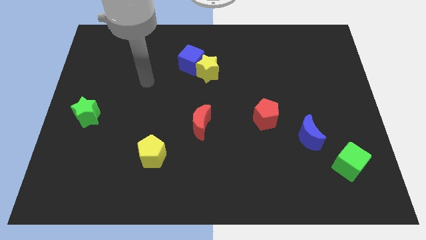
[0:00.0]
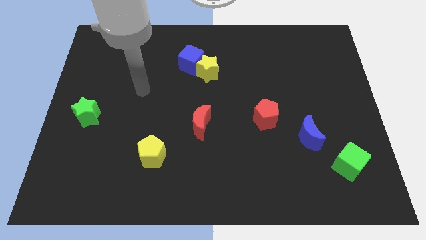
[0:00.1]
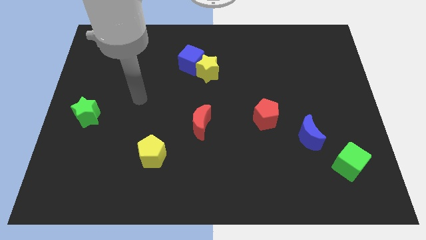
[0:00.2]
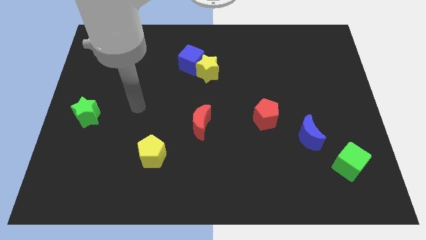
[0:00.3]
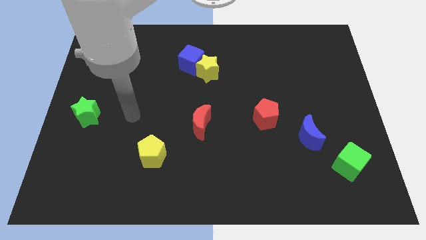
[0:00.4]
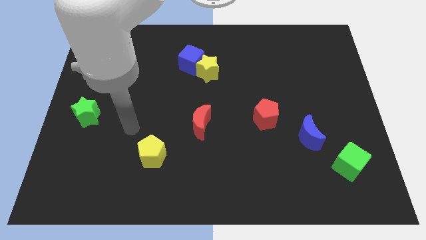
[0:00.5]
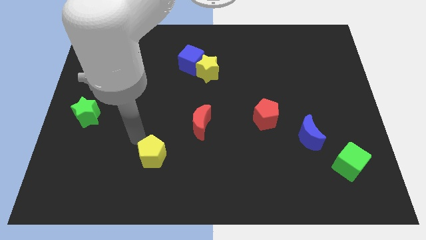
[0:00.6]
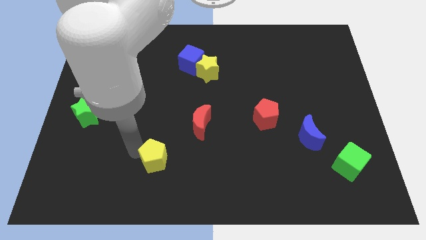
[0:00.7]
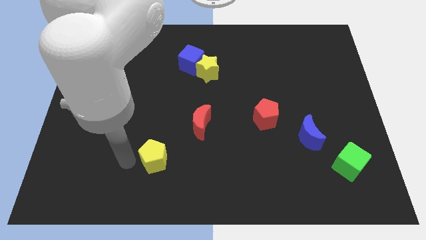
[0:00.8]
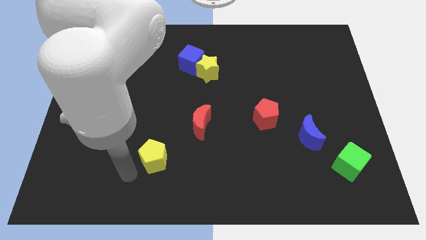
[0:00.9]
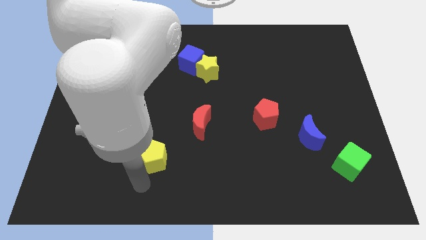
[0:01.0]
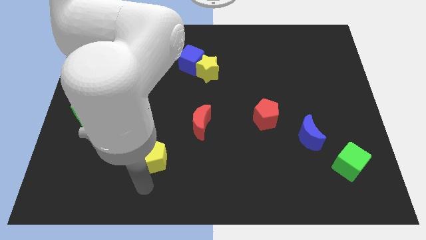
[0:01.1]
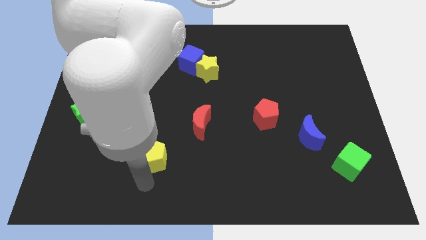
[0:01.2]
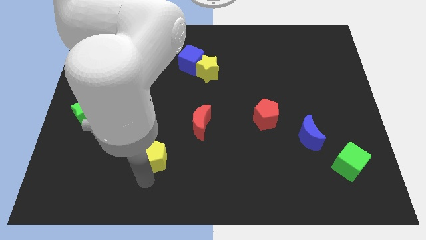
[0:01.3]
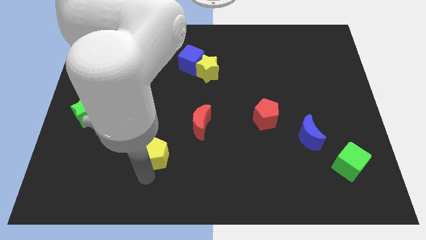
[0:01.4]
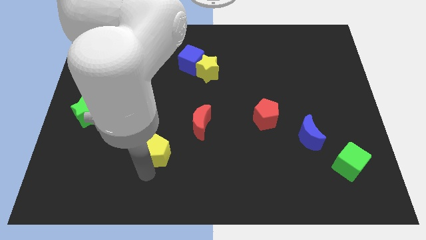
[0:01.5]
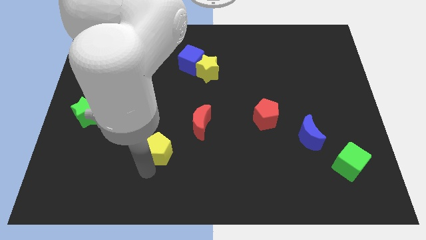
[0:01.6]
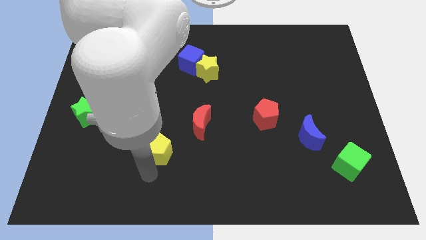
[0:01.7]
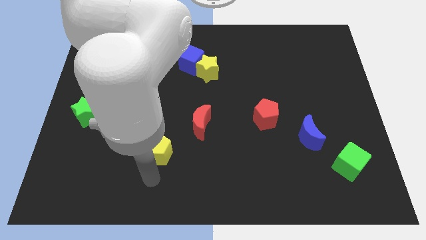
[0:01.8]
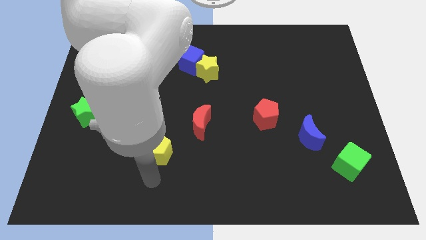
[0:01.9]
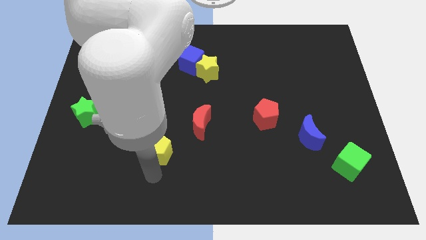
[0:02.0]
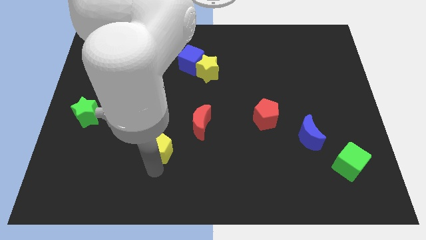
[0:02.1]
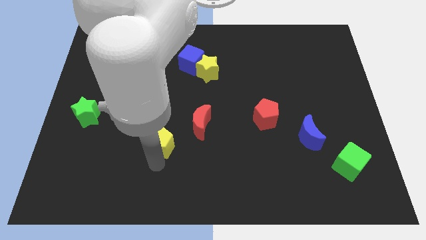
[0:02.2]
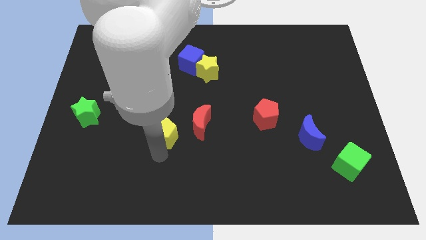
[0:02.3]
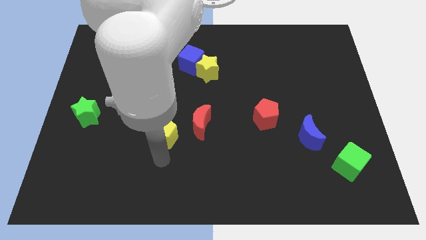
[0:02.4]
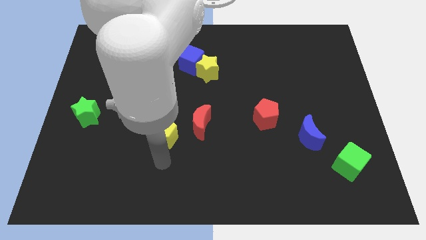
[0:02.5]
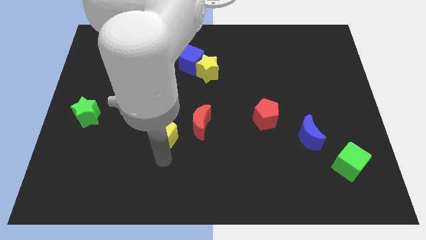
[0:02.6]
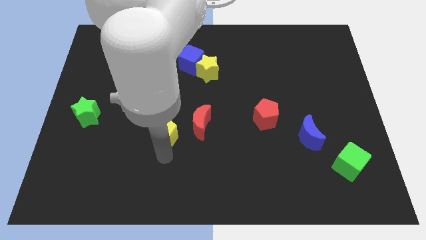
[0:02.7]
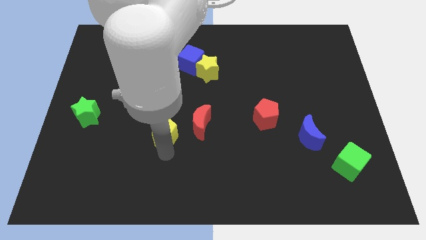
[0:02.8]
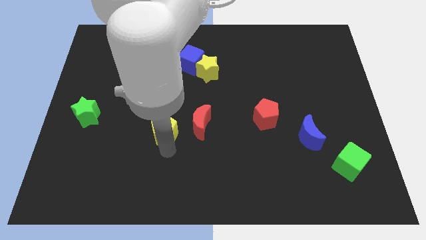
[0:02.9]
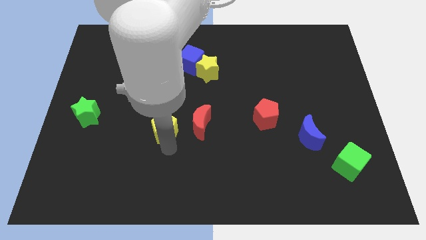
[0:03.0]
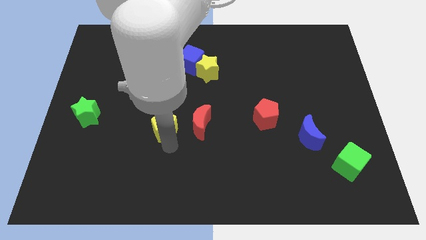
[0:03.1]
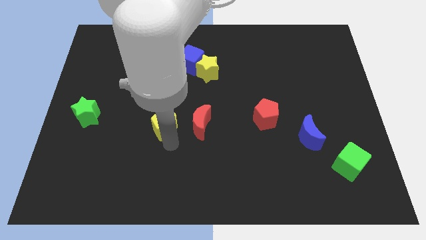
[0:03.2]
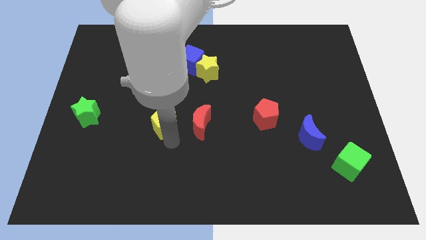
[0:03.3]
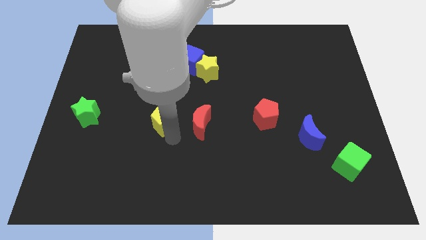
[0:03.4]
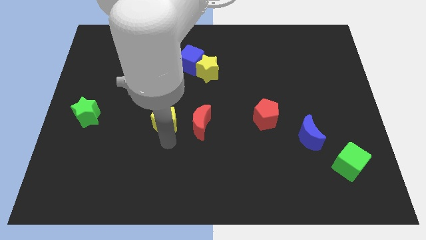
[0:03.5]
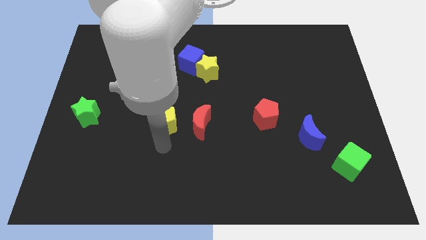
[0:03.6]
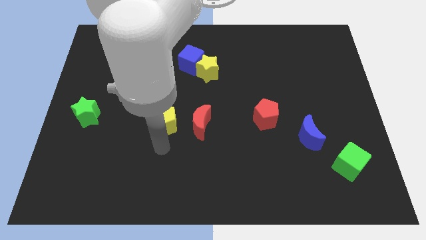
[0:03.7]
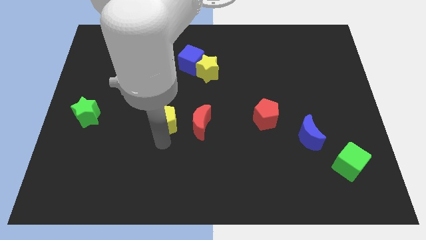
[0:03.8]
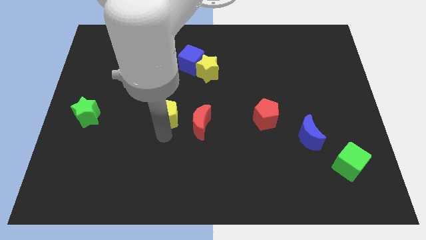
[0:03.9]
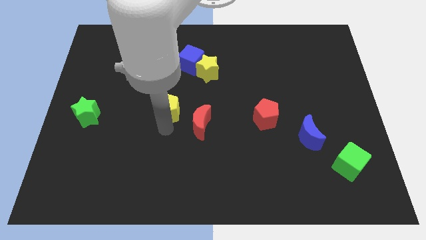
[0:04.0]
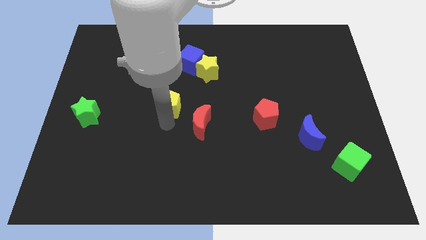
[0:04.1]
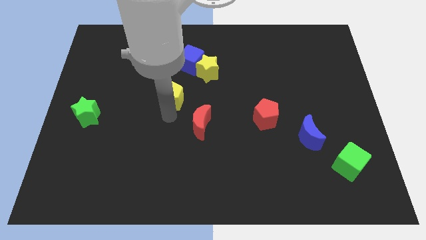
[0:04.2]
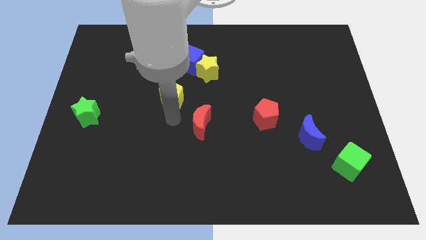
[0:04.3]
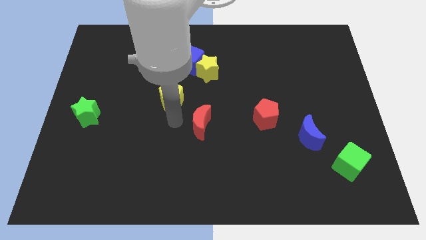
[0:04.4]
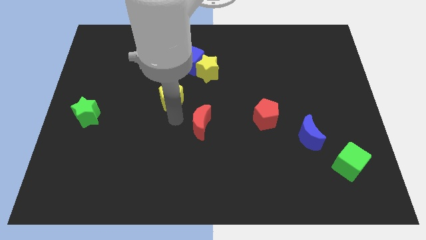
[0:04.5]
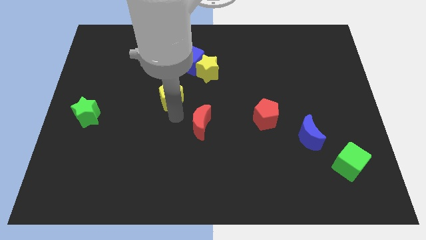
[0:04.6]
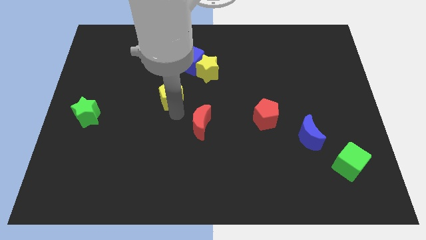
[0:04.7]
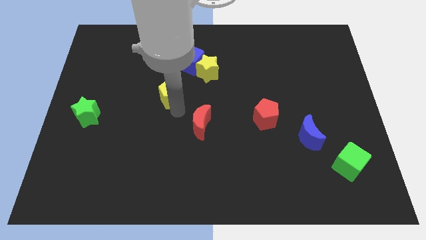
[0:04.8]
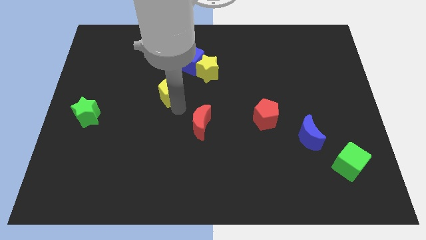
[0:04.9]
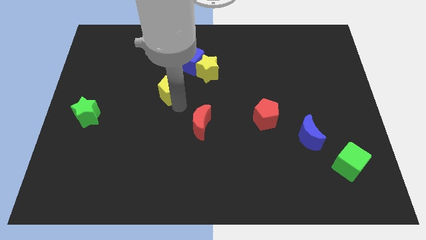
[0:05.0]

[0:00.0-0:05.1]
put the yellow pentagon diagonally down and to the left of the blue cube

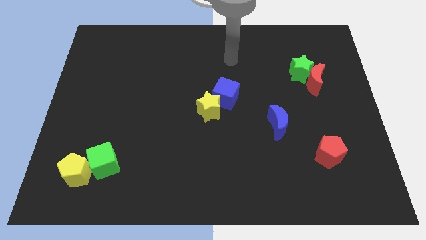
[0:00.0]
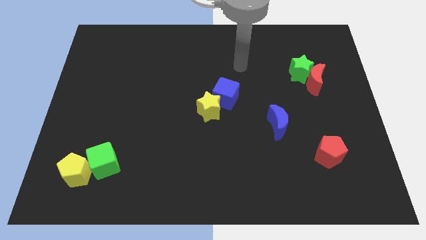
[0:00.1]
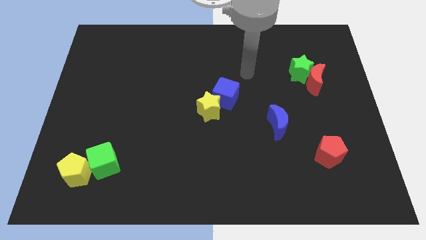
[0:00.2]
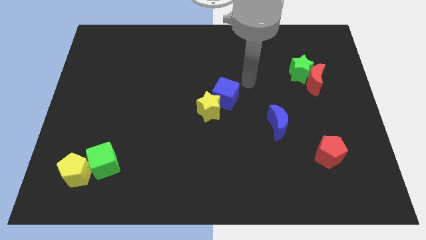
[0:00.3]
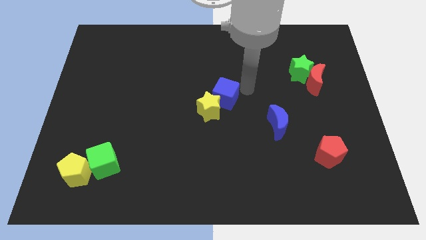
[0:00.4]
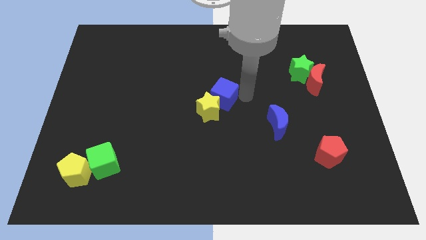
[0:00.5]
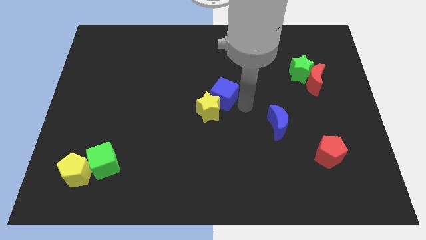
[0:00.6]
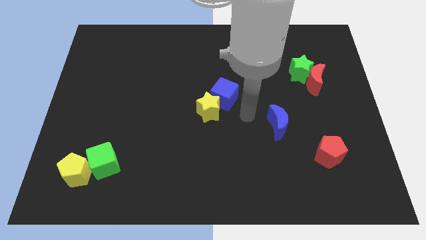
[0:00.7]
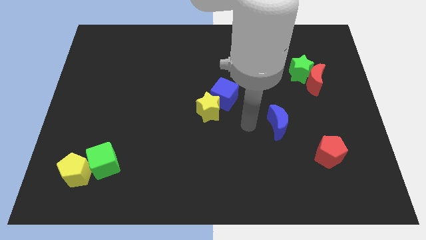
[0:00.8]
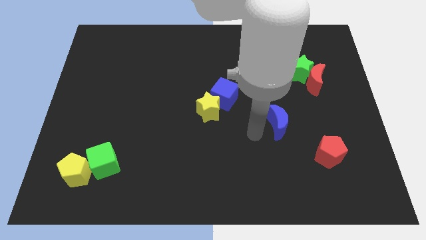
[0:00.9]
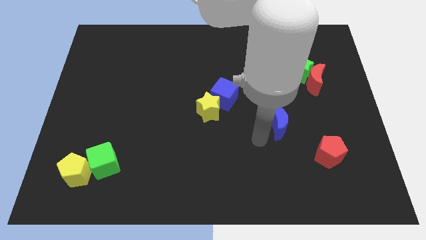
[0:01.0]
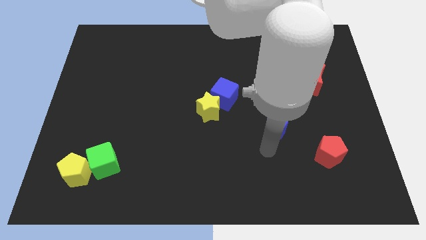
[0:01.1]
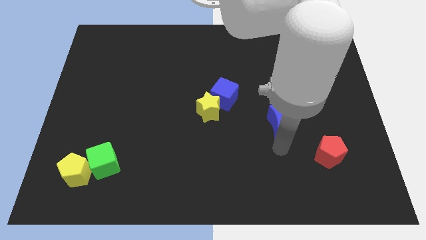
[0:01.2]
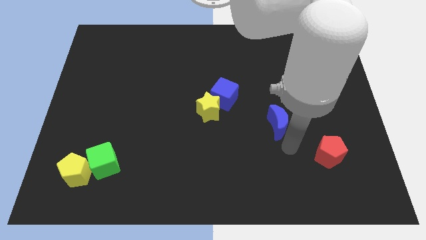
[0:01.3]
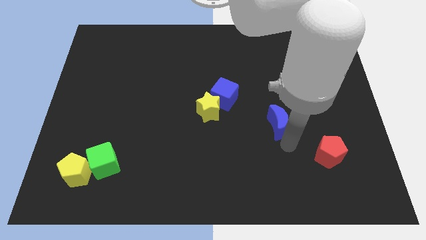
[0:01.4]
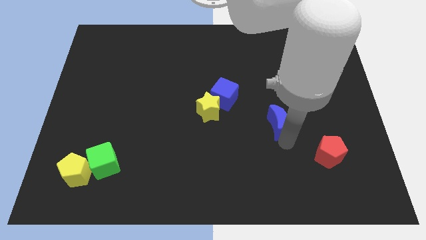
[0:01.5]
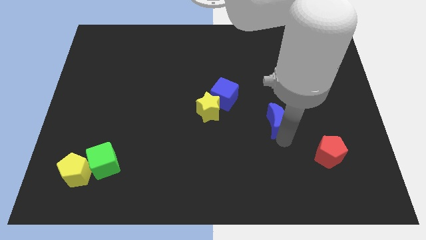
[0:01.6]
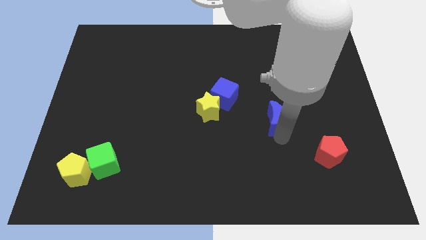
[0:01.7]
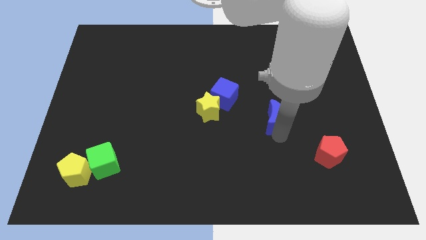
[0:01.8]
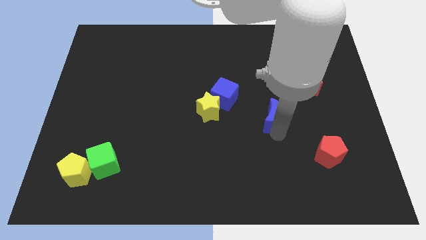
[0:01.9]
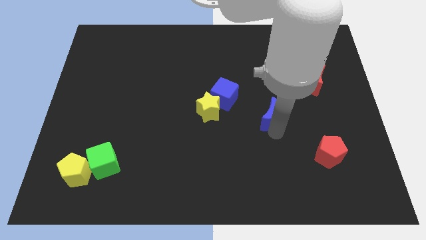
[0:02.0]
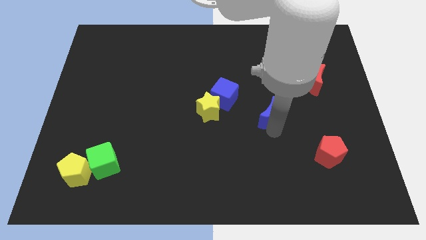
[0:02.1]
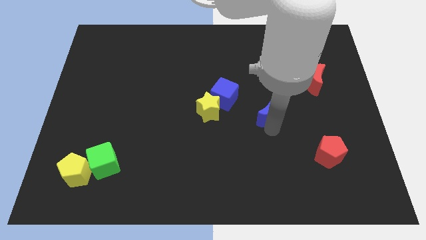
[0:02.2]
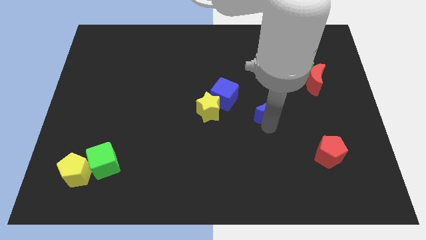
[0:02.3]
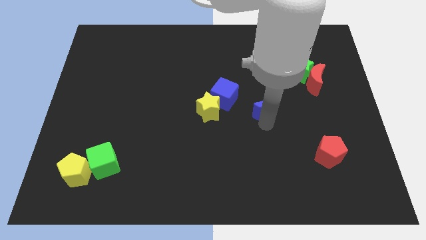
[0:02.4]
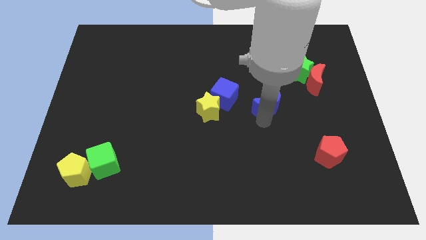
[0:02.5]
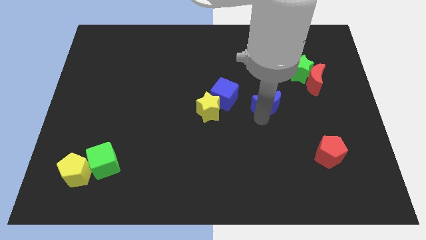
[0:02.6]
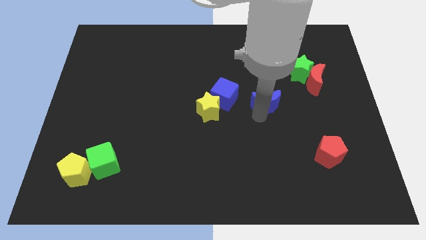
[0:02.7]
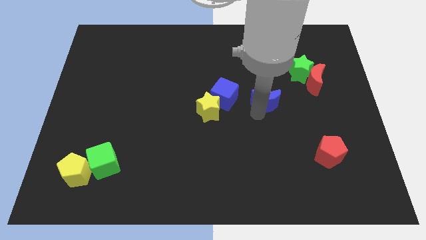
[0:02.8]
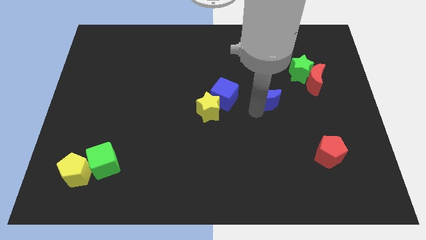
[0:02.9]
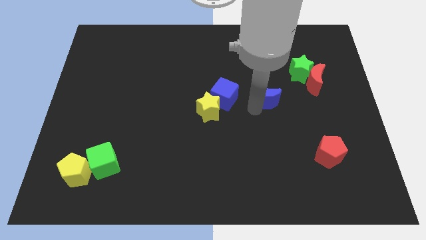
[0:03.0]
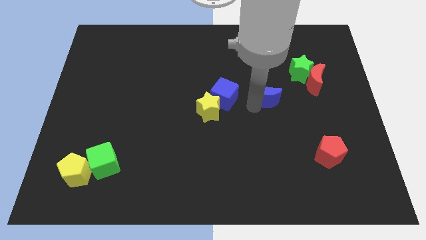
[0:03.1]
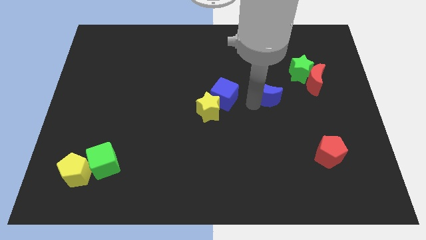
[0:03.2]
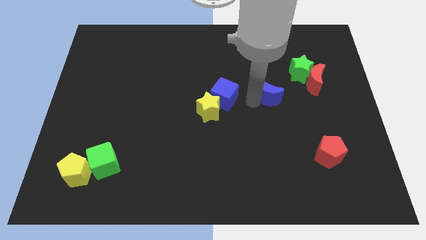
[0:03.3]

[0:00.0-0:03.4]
slide the blue moon to the left side of the red moon
